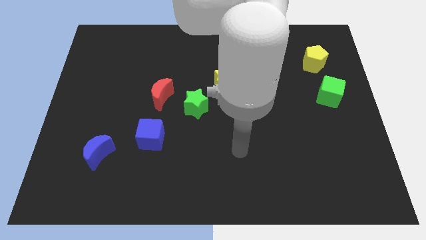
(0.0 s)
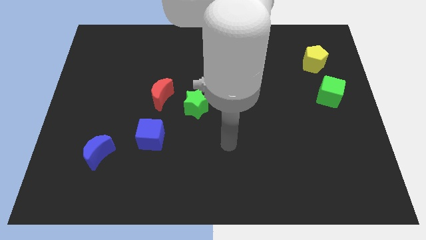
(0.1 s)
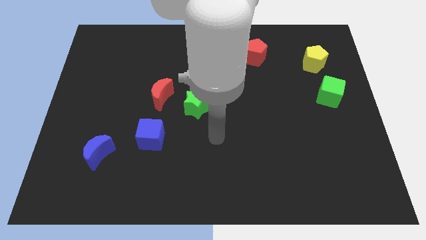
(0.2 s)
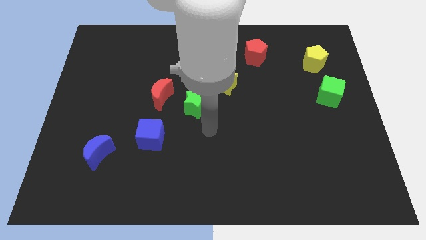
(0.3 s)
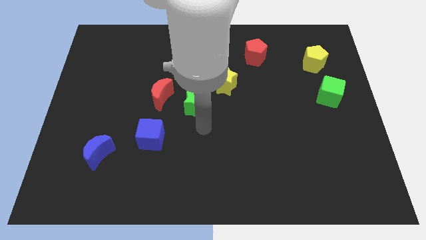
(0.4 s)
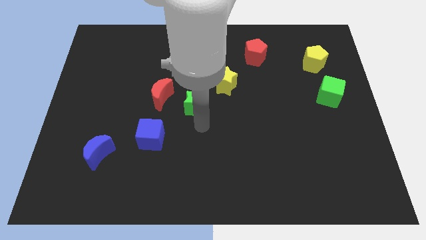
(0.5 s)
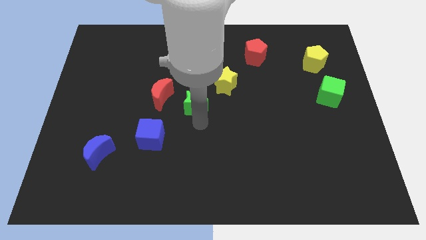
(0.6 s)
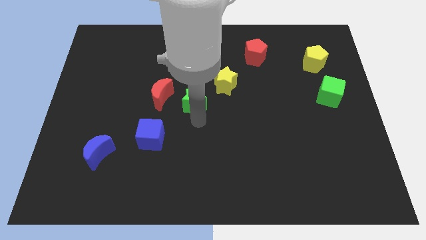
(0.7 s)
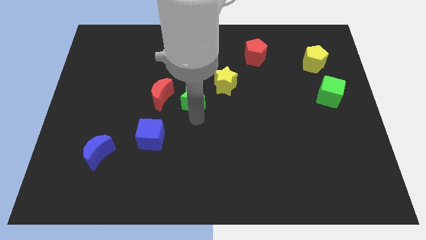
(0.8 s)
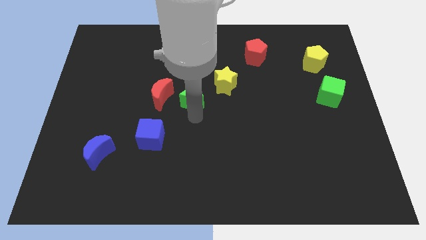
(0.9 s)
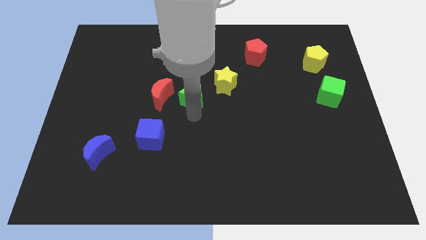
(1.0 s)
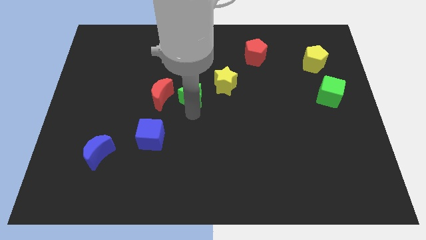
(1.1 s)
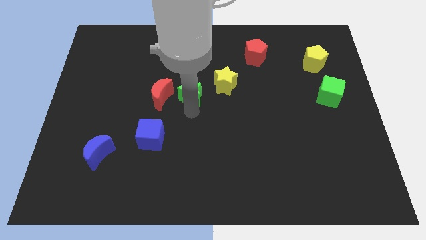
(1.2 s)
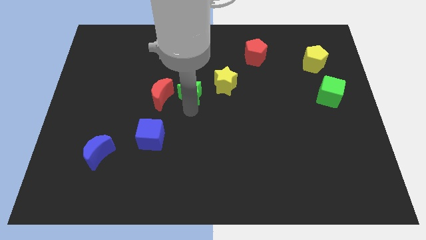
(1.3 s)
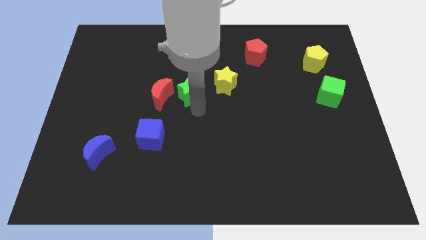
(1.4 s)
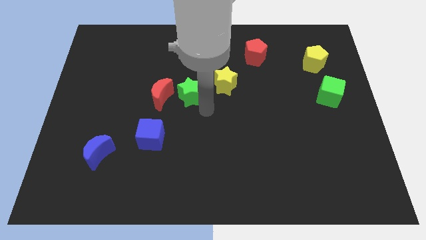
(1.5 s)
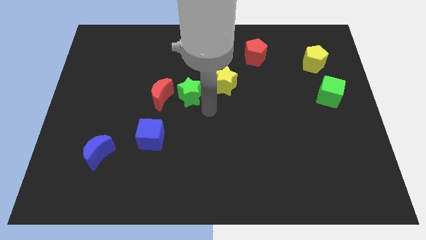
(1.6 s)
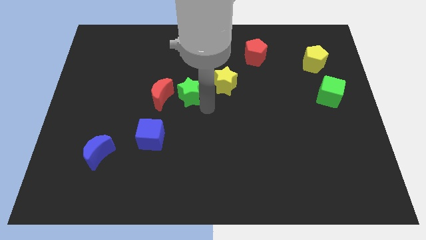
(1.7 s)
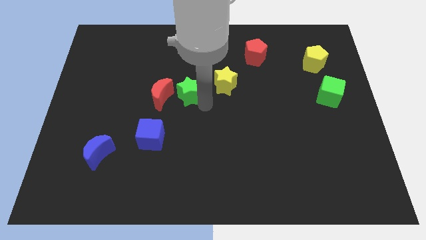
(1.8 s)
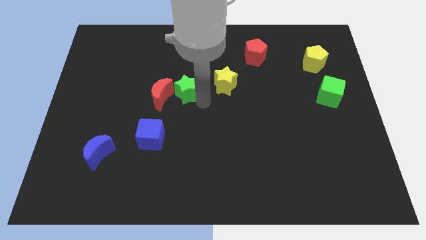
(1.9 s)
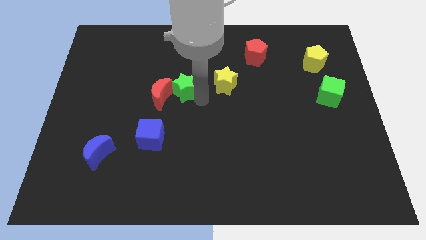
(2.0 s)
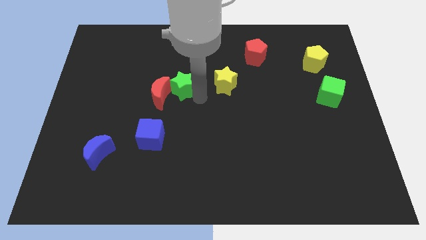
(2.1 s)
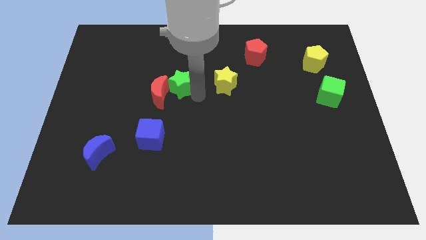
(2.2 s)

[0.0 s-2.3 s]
slide the green star a bit diagonally upwards and to the left

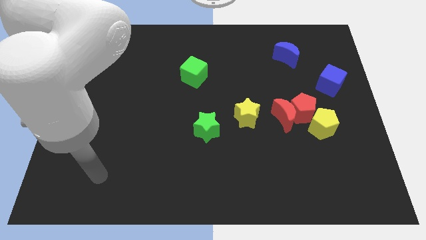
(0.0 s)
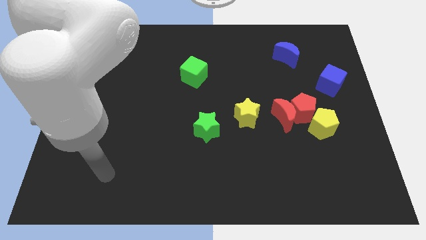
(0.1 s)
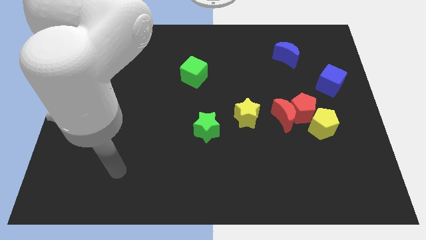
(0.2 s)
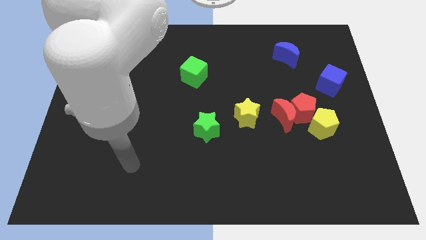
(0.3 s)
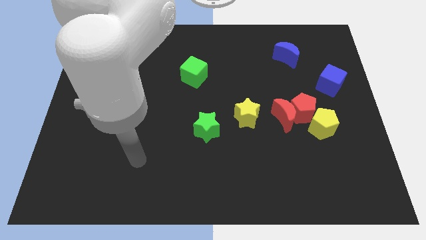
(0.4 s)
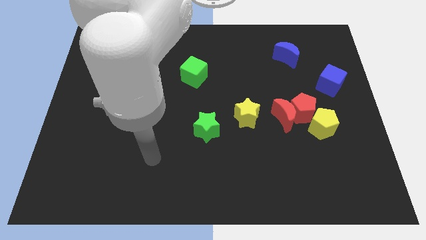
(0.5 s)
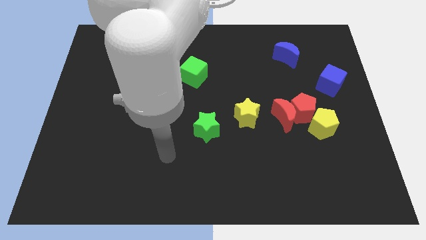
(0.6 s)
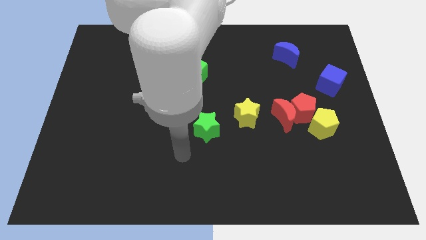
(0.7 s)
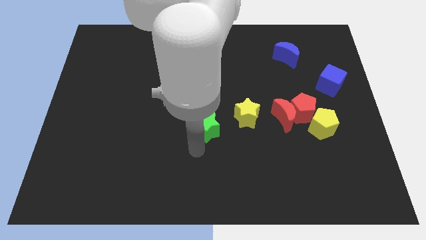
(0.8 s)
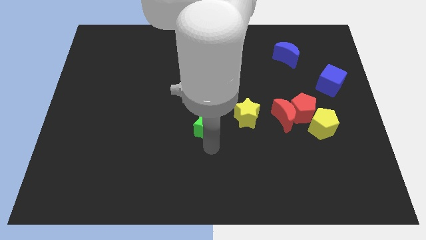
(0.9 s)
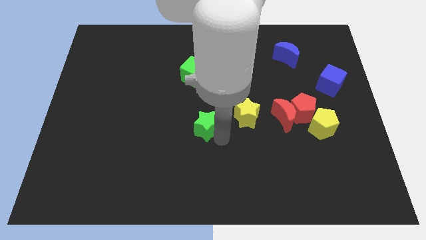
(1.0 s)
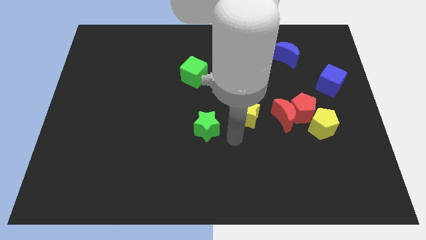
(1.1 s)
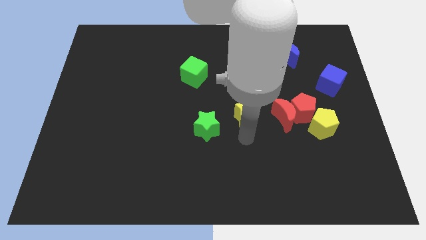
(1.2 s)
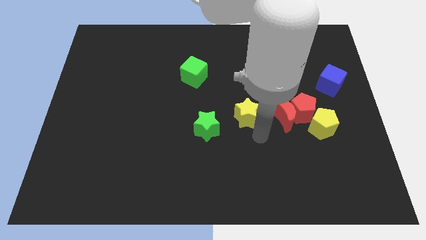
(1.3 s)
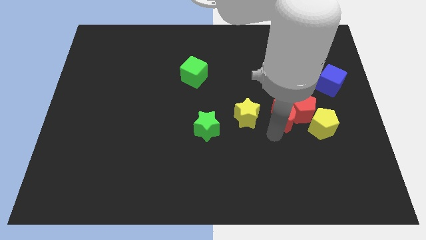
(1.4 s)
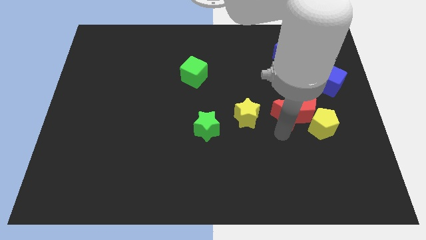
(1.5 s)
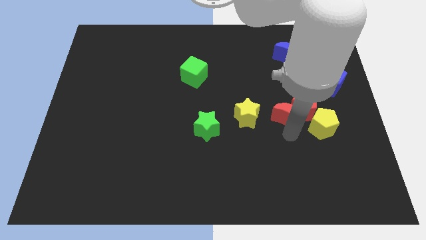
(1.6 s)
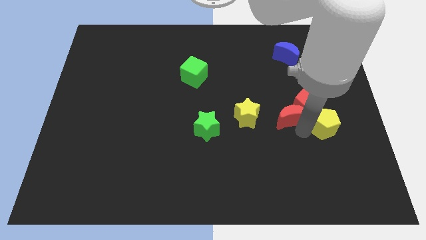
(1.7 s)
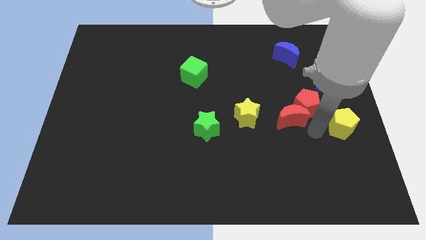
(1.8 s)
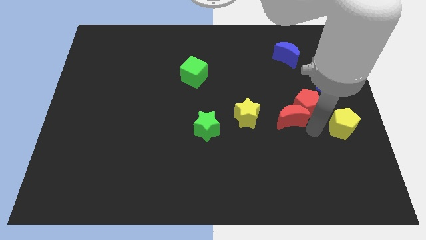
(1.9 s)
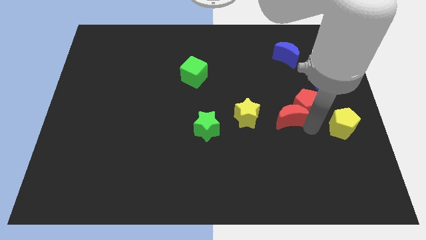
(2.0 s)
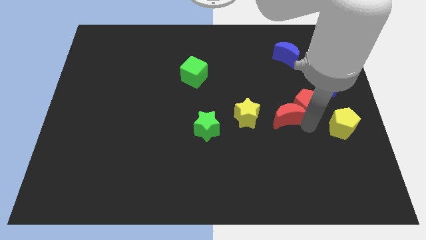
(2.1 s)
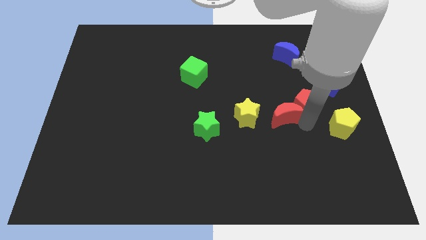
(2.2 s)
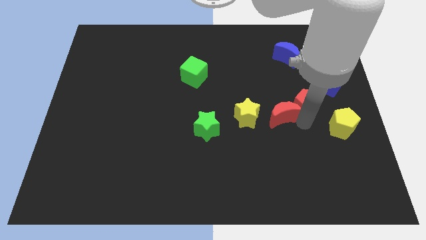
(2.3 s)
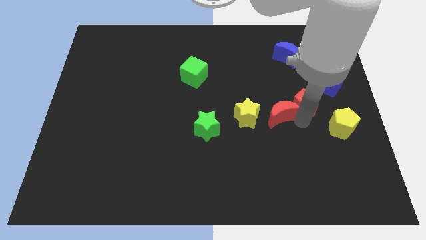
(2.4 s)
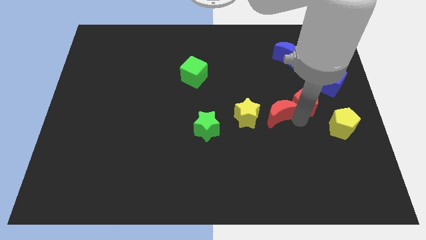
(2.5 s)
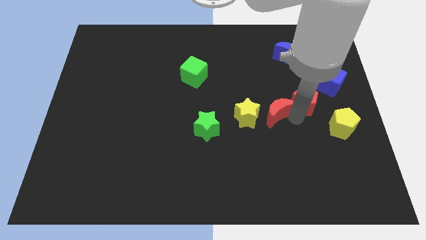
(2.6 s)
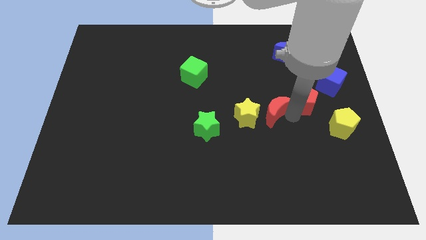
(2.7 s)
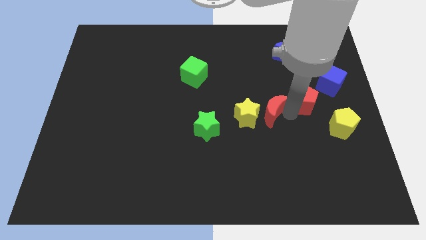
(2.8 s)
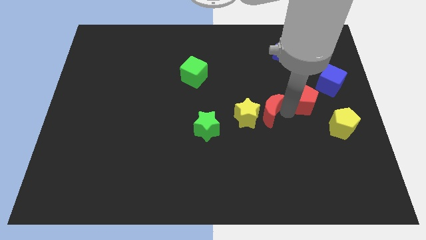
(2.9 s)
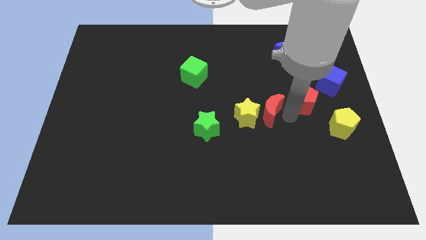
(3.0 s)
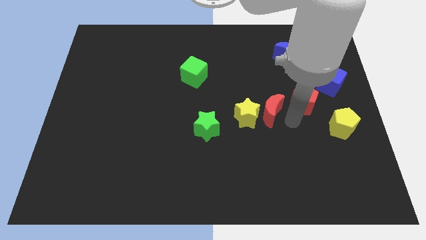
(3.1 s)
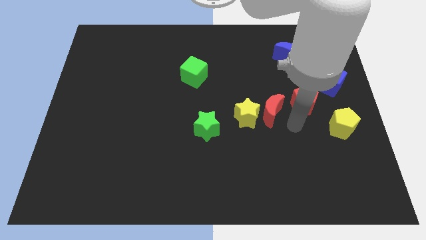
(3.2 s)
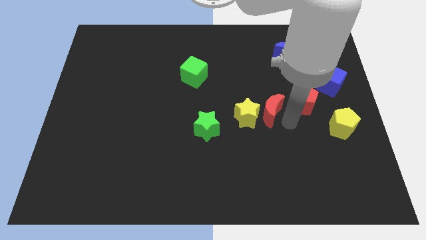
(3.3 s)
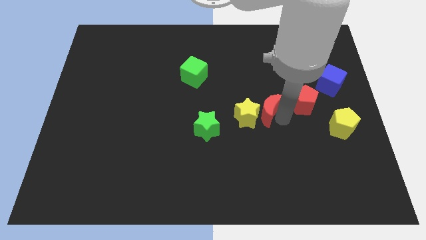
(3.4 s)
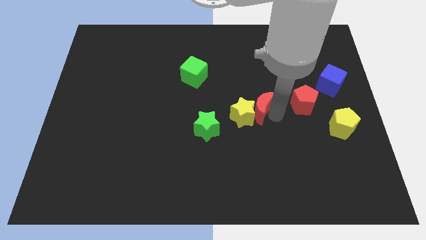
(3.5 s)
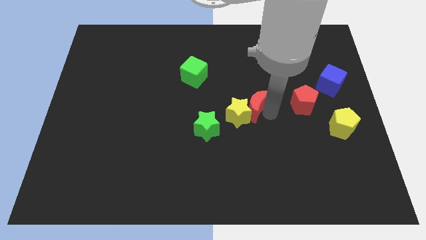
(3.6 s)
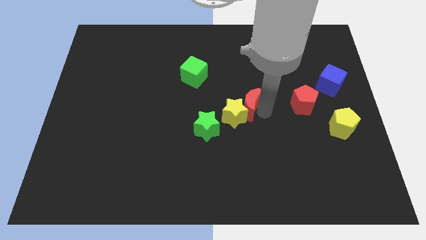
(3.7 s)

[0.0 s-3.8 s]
push the red moon left a little bit

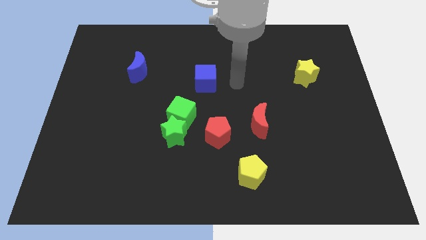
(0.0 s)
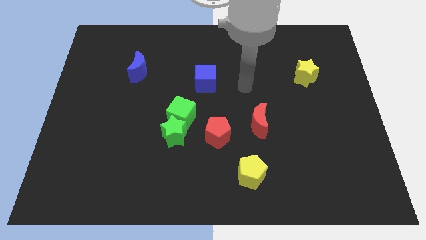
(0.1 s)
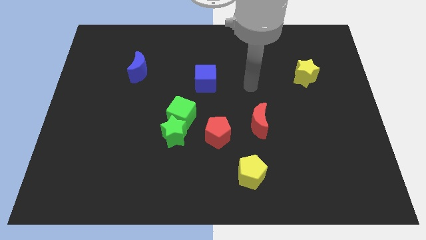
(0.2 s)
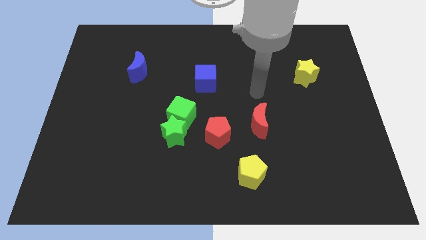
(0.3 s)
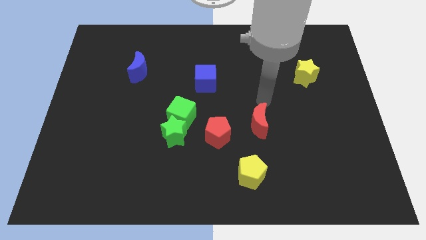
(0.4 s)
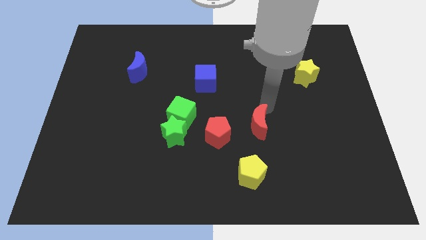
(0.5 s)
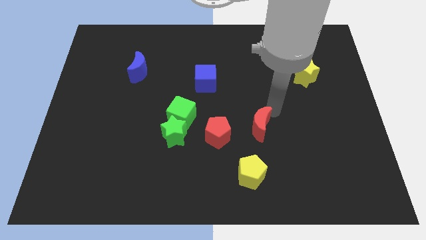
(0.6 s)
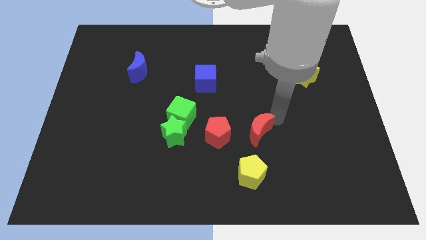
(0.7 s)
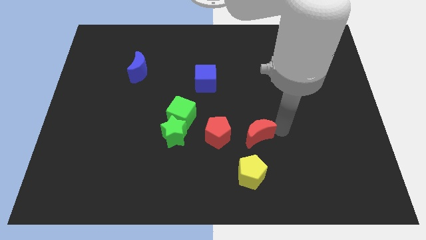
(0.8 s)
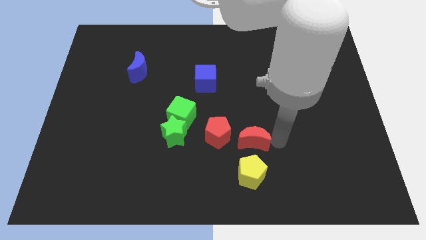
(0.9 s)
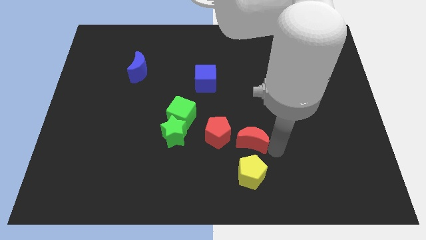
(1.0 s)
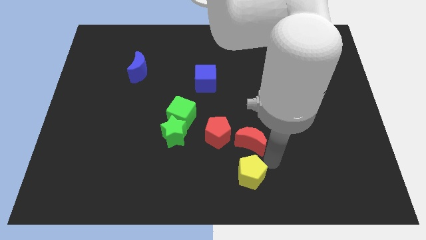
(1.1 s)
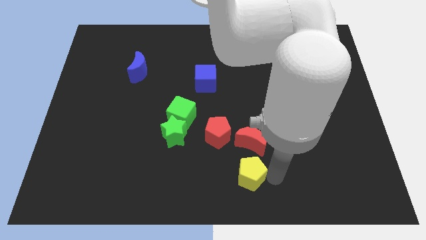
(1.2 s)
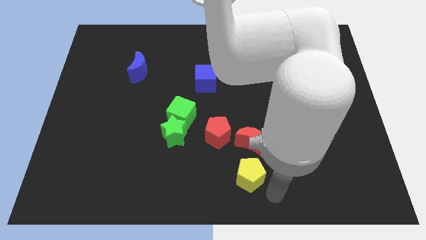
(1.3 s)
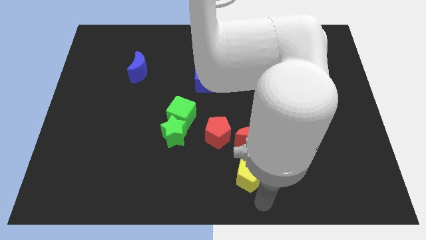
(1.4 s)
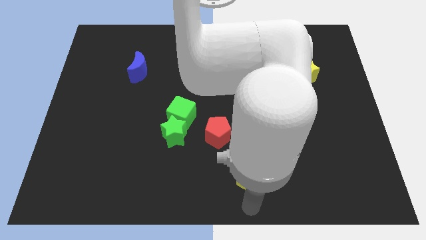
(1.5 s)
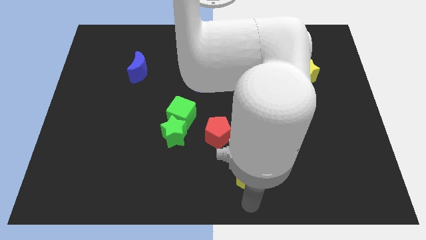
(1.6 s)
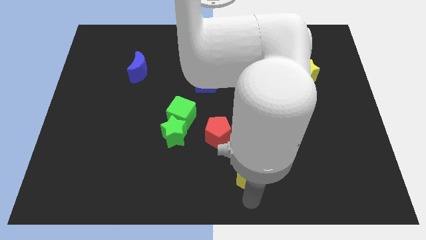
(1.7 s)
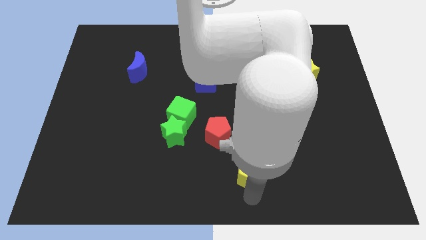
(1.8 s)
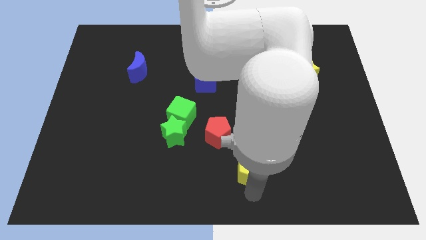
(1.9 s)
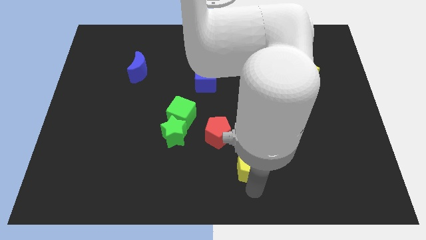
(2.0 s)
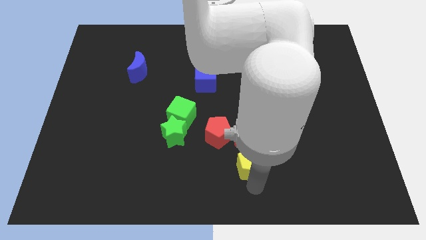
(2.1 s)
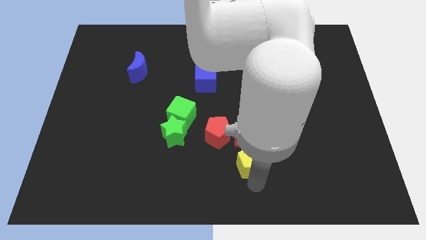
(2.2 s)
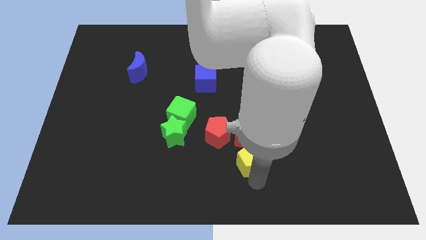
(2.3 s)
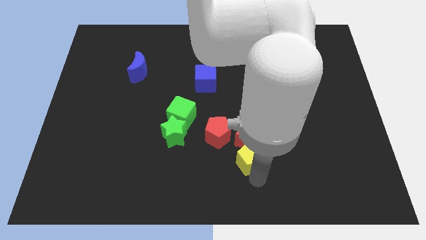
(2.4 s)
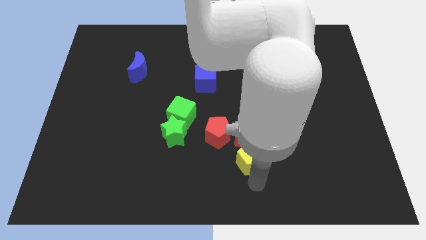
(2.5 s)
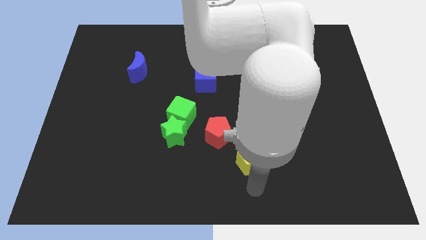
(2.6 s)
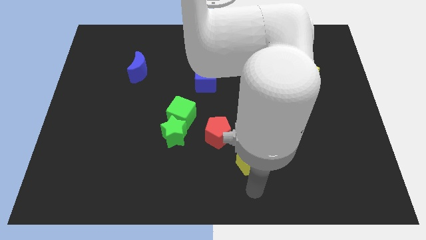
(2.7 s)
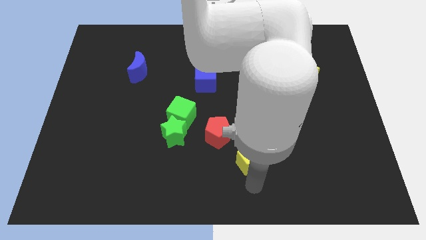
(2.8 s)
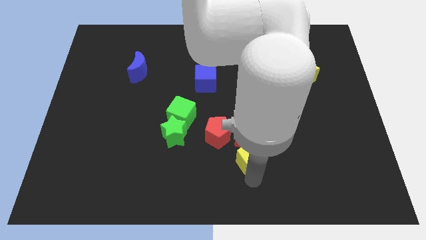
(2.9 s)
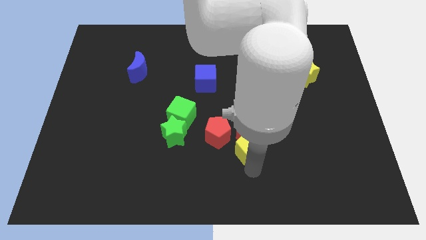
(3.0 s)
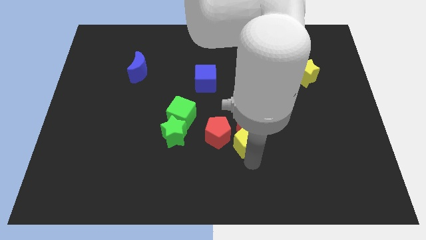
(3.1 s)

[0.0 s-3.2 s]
move the yellow pentagon a little up
